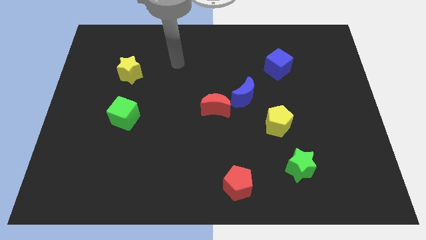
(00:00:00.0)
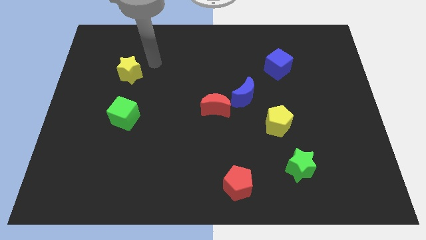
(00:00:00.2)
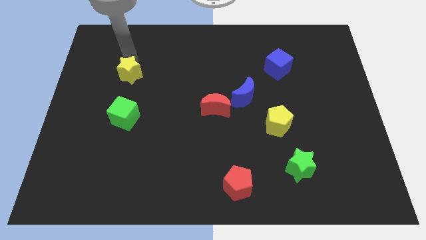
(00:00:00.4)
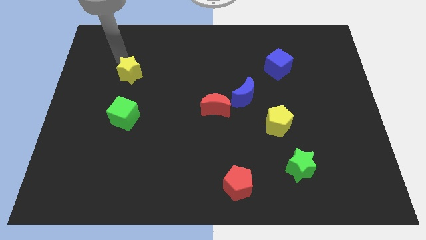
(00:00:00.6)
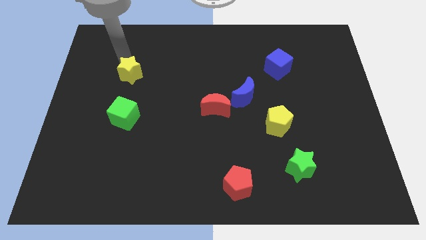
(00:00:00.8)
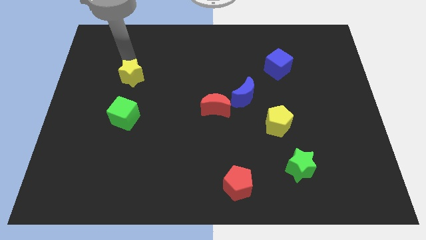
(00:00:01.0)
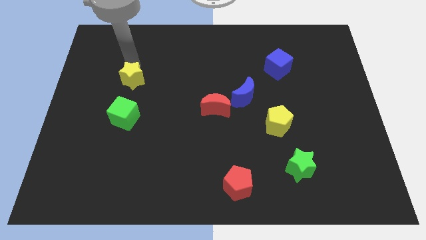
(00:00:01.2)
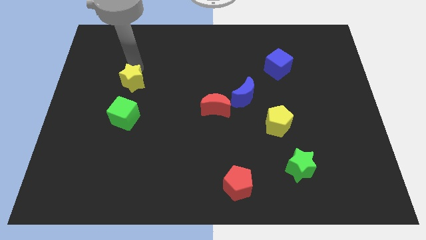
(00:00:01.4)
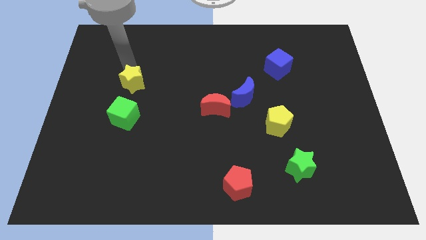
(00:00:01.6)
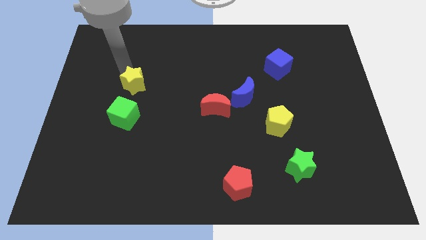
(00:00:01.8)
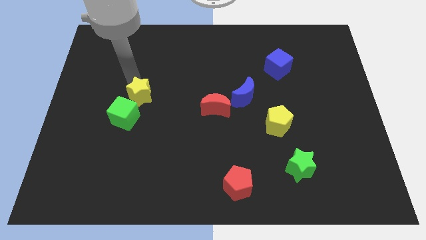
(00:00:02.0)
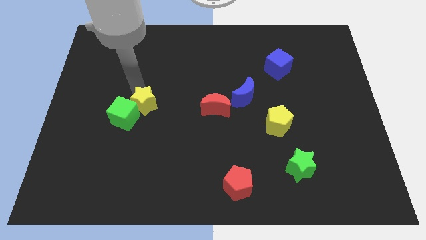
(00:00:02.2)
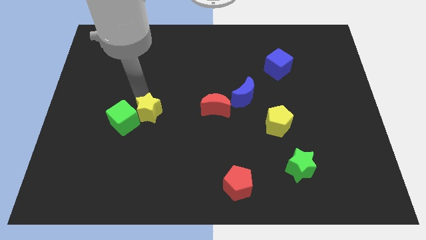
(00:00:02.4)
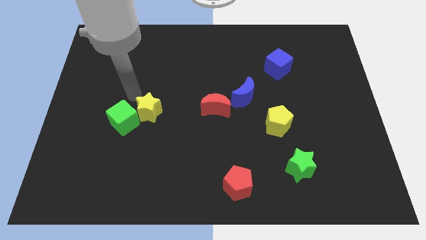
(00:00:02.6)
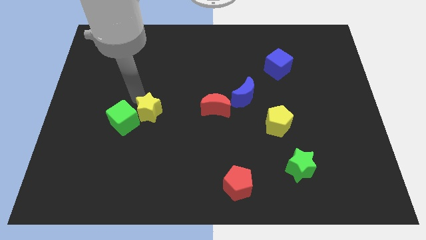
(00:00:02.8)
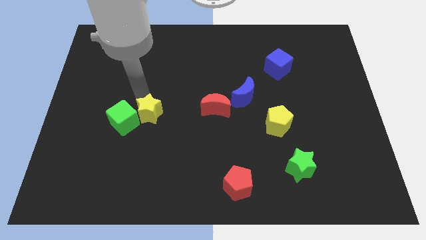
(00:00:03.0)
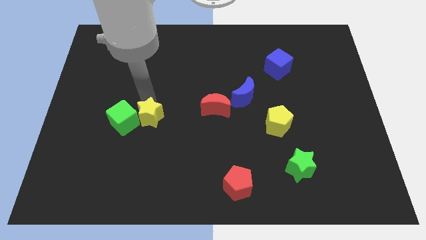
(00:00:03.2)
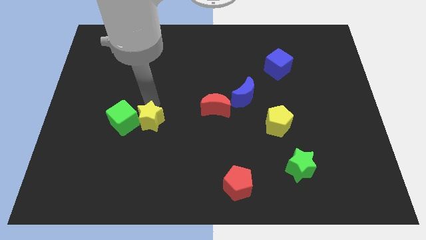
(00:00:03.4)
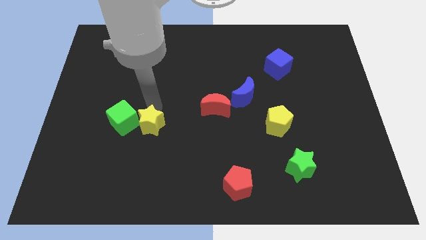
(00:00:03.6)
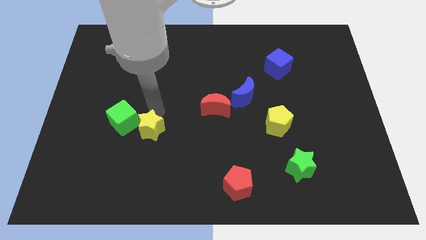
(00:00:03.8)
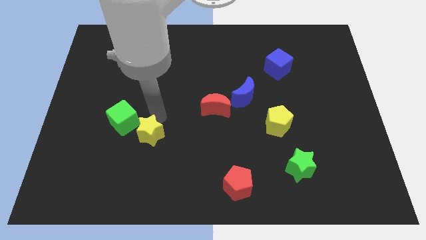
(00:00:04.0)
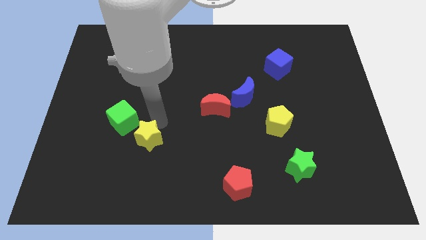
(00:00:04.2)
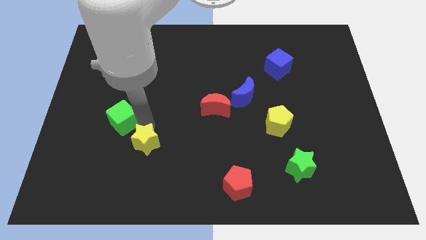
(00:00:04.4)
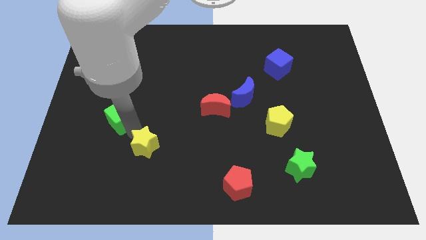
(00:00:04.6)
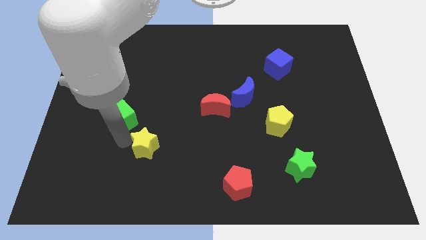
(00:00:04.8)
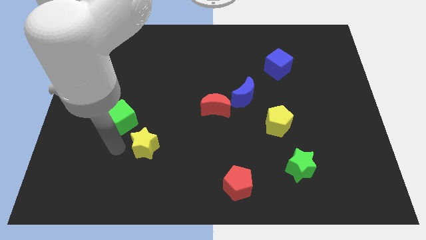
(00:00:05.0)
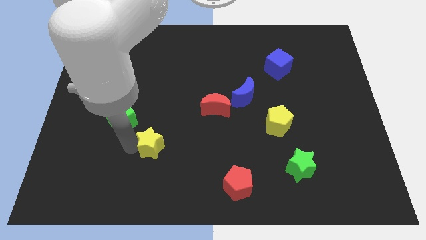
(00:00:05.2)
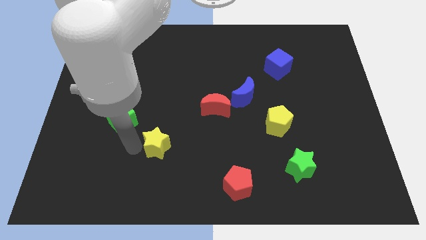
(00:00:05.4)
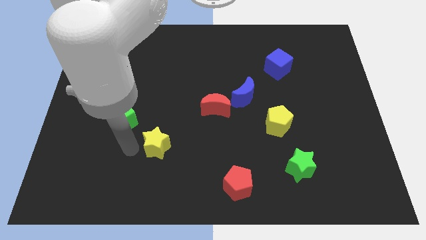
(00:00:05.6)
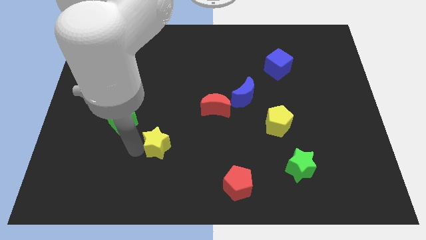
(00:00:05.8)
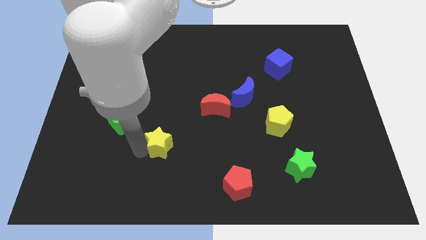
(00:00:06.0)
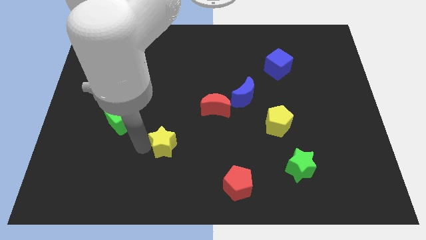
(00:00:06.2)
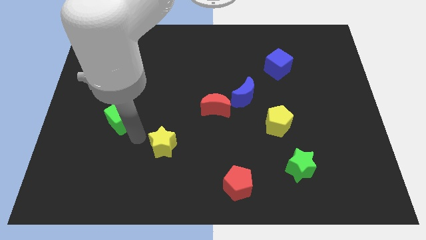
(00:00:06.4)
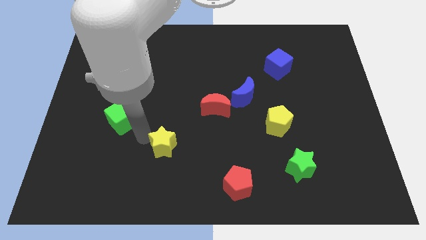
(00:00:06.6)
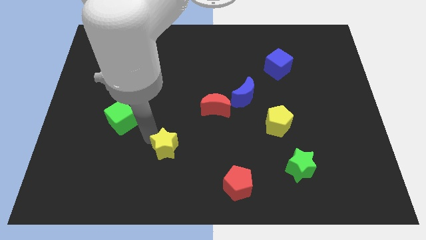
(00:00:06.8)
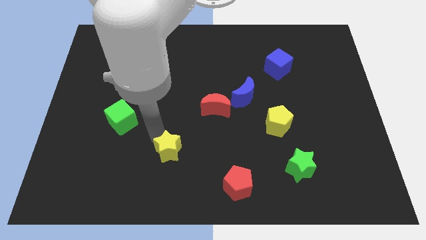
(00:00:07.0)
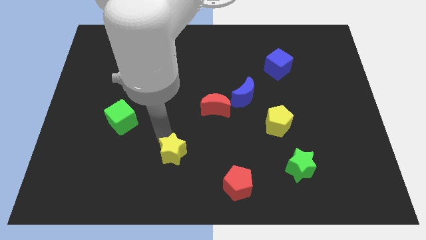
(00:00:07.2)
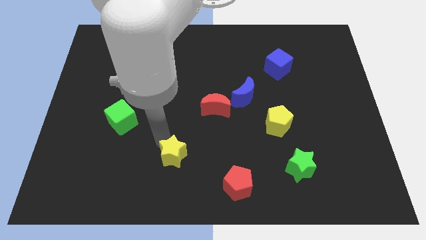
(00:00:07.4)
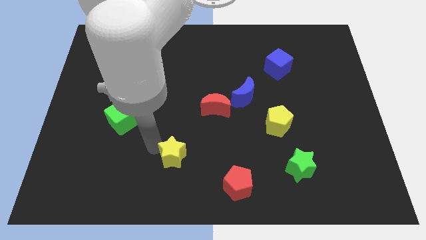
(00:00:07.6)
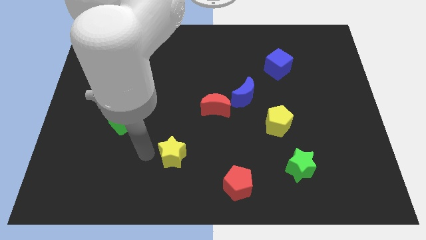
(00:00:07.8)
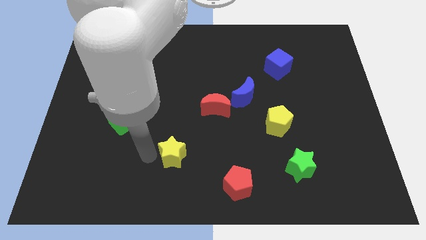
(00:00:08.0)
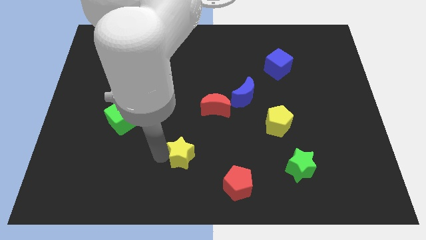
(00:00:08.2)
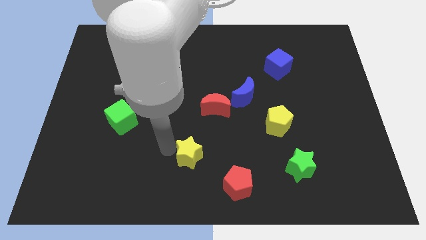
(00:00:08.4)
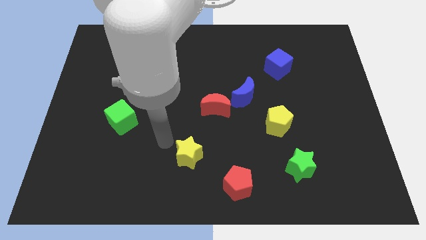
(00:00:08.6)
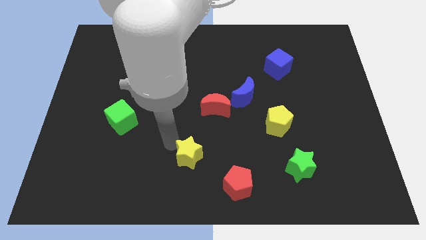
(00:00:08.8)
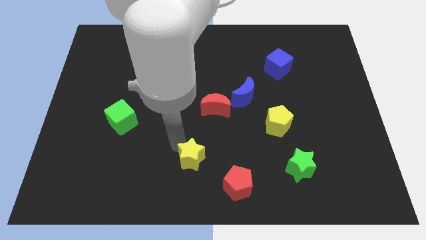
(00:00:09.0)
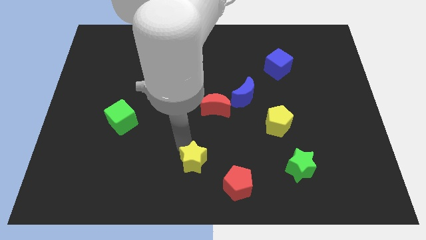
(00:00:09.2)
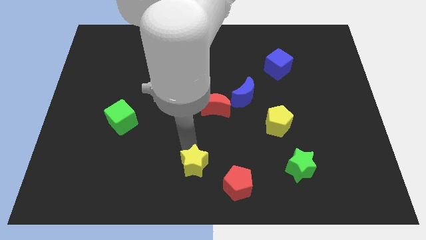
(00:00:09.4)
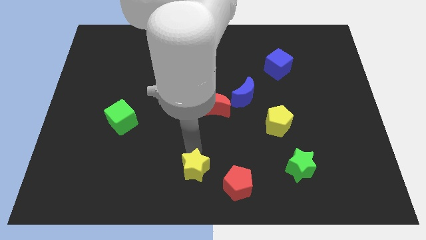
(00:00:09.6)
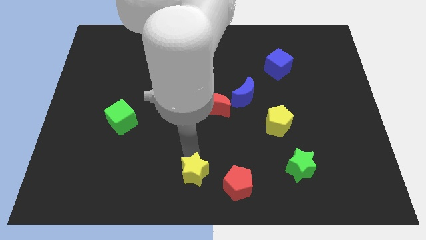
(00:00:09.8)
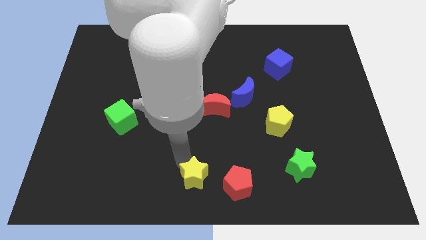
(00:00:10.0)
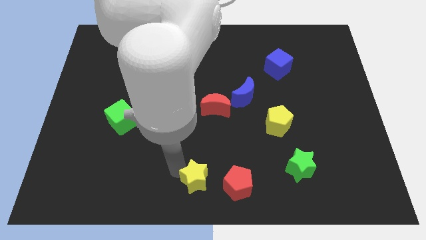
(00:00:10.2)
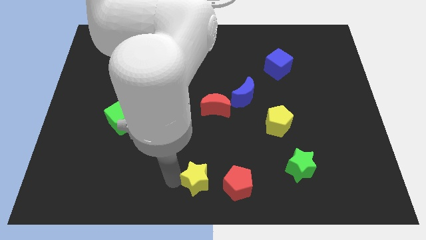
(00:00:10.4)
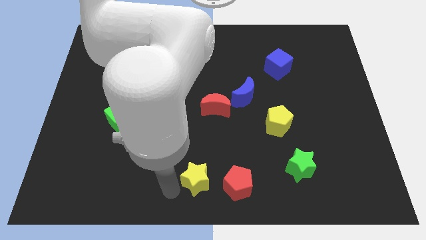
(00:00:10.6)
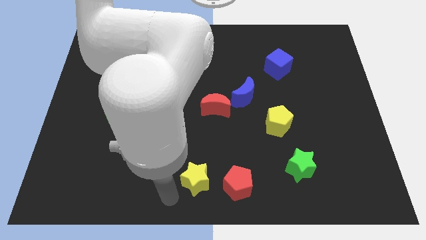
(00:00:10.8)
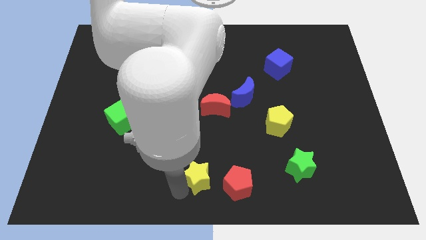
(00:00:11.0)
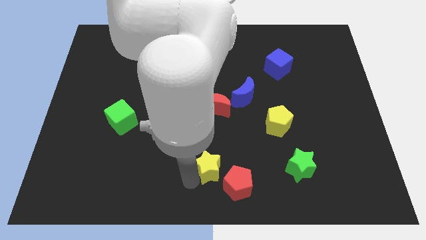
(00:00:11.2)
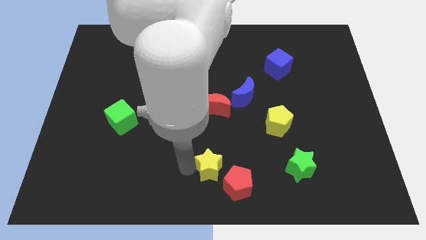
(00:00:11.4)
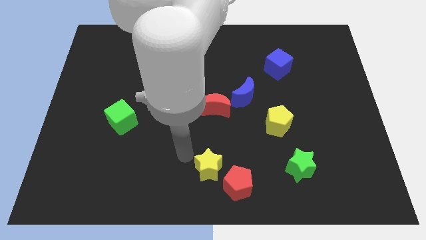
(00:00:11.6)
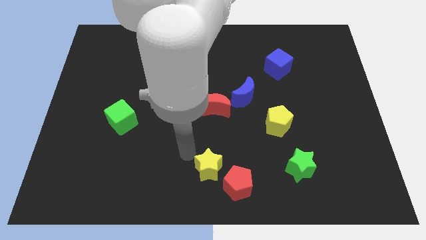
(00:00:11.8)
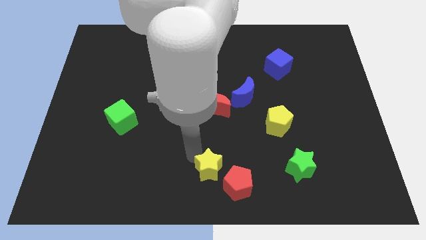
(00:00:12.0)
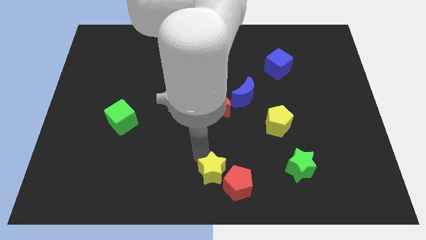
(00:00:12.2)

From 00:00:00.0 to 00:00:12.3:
move the yellow star close to the red pentagon

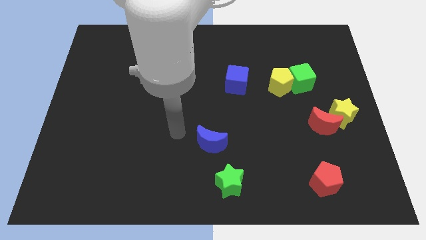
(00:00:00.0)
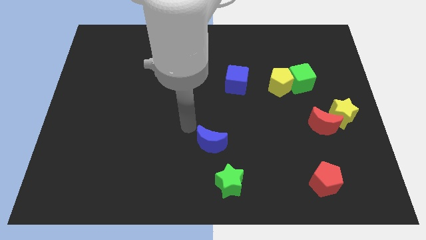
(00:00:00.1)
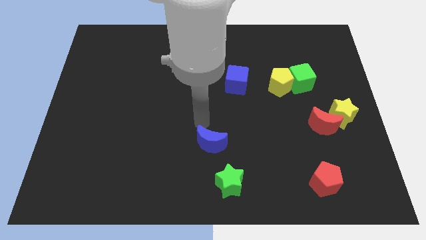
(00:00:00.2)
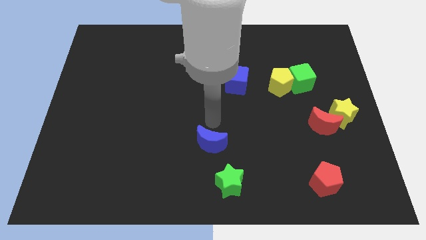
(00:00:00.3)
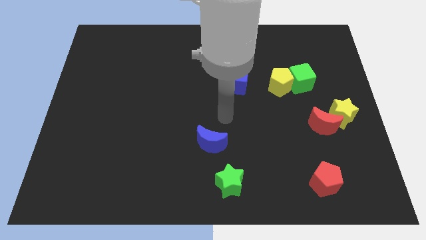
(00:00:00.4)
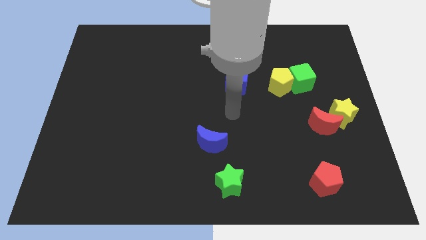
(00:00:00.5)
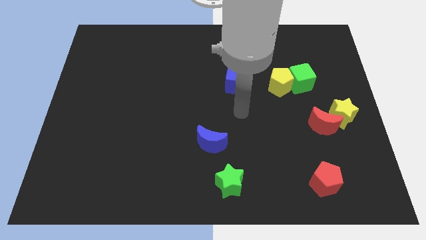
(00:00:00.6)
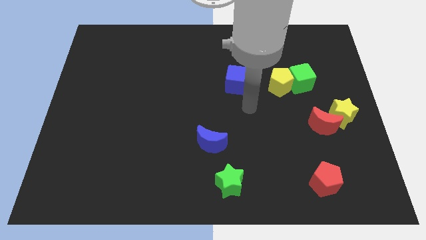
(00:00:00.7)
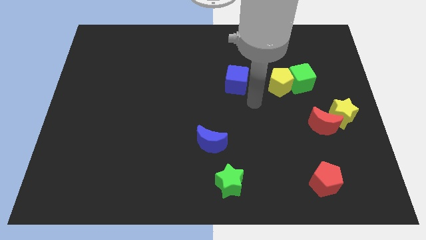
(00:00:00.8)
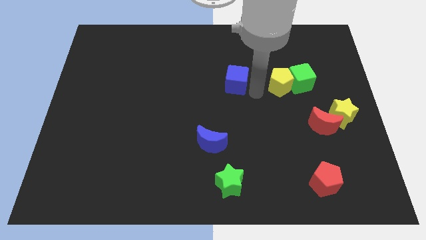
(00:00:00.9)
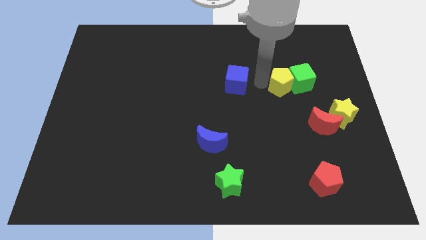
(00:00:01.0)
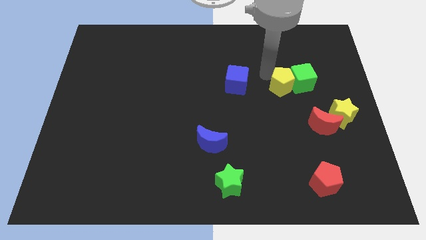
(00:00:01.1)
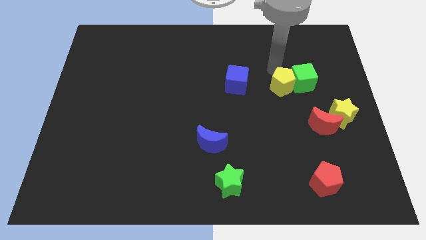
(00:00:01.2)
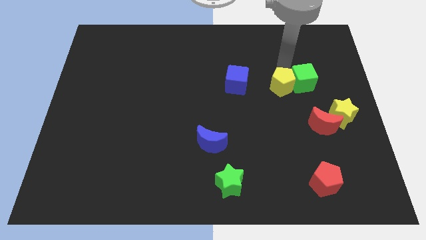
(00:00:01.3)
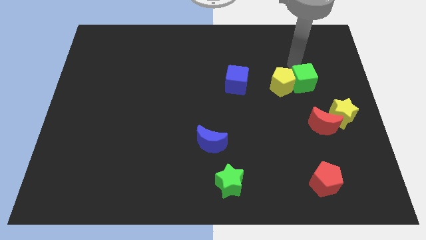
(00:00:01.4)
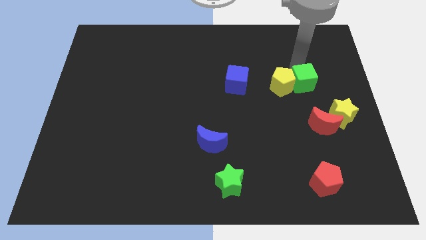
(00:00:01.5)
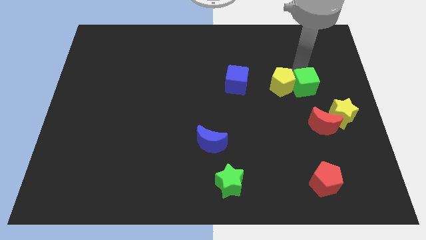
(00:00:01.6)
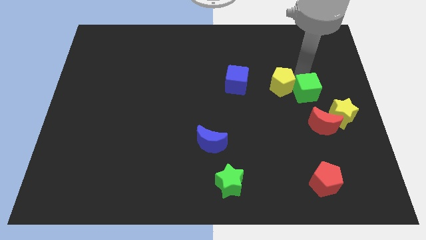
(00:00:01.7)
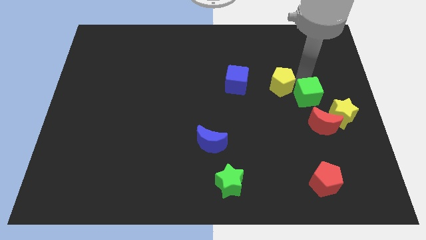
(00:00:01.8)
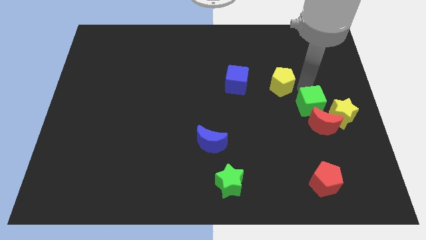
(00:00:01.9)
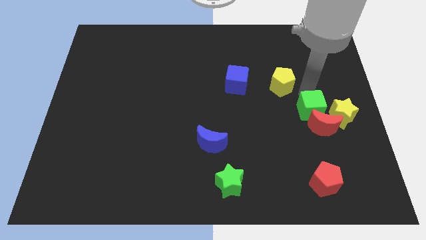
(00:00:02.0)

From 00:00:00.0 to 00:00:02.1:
slide the green cube towards the red moon
